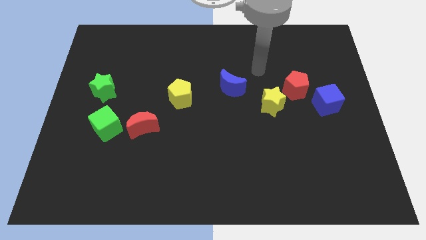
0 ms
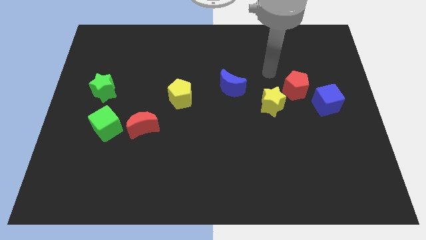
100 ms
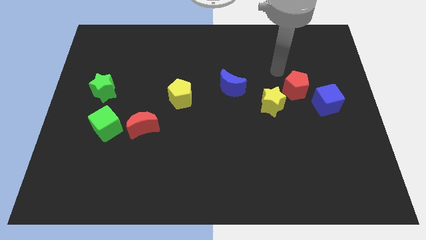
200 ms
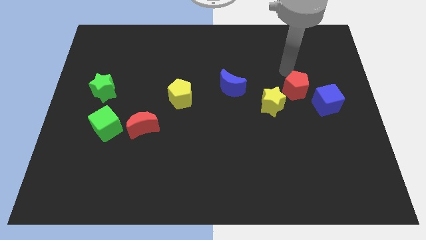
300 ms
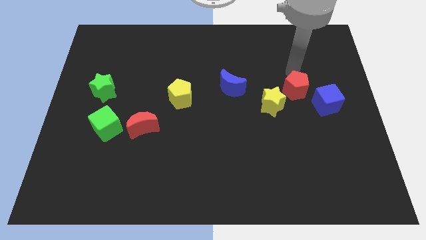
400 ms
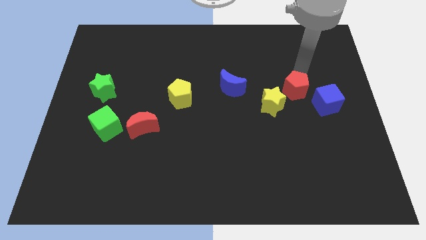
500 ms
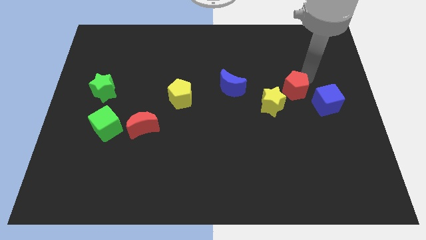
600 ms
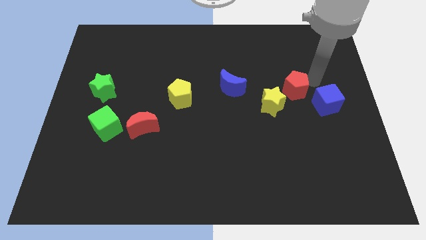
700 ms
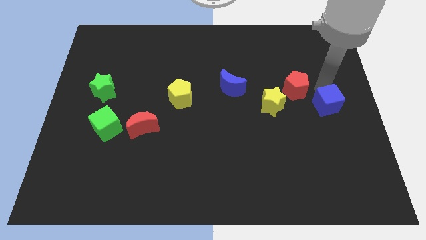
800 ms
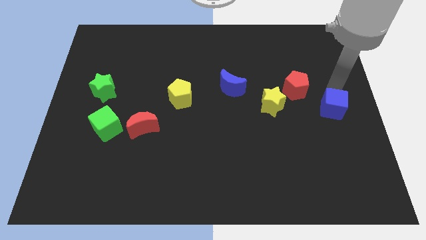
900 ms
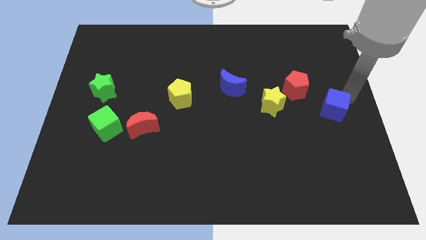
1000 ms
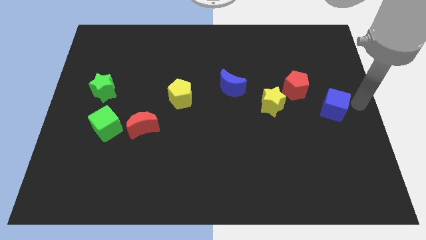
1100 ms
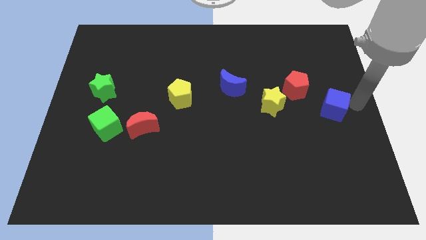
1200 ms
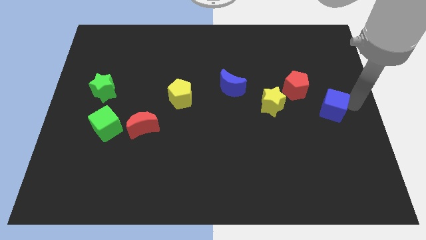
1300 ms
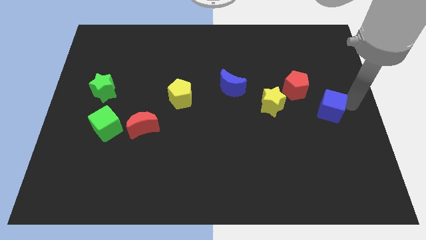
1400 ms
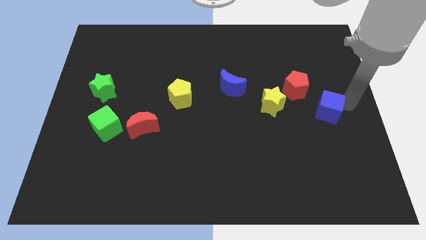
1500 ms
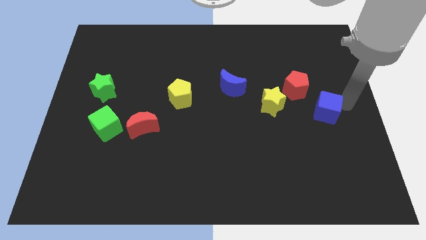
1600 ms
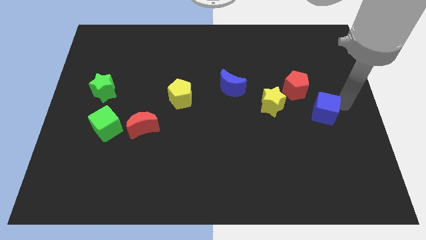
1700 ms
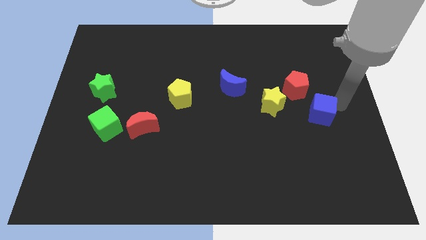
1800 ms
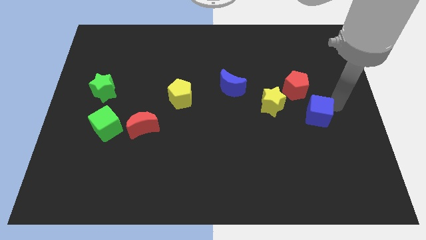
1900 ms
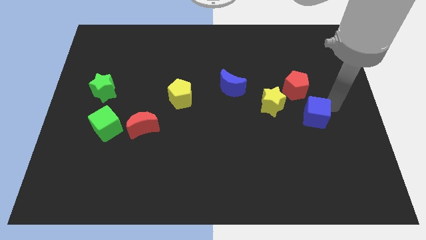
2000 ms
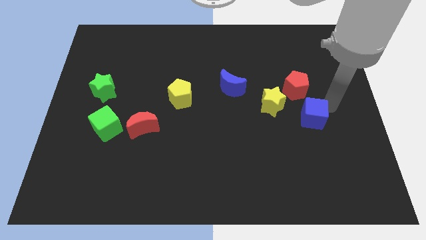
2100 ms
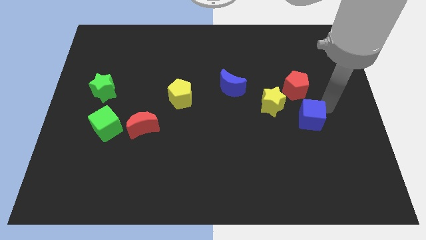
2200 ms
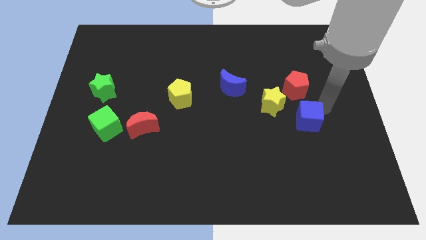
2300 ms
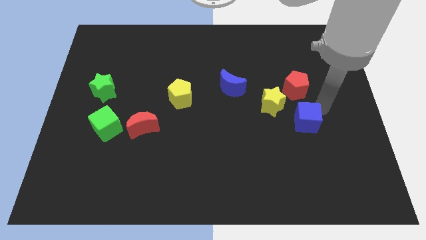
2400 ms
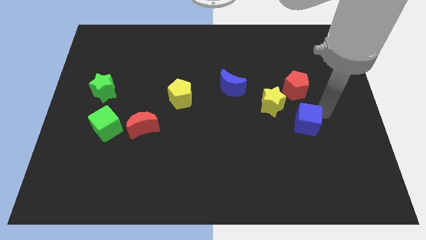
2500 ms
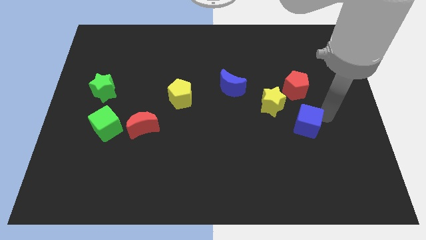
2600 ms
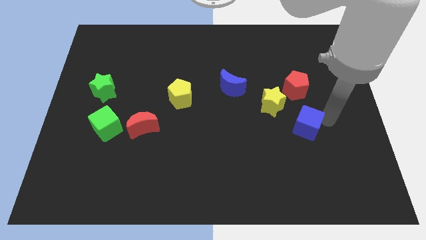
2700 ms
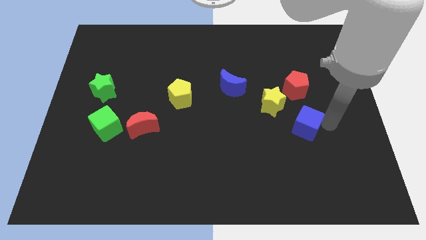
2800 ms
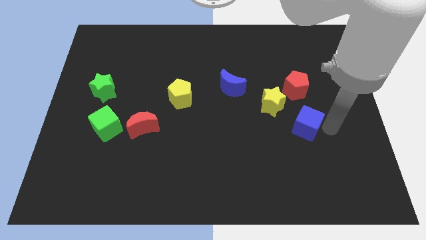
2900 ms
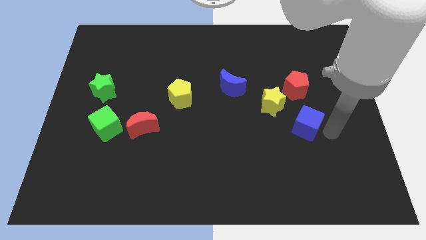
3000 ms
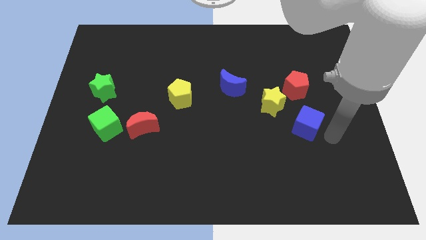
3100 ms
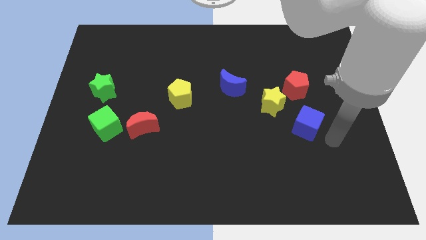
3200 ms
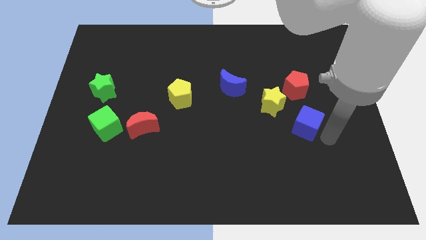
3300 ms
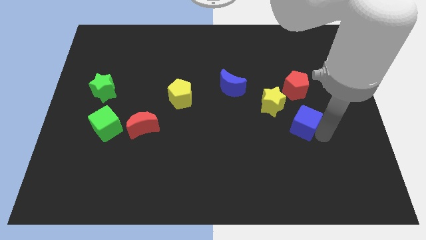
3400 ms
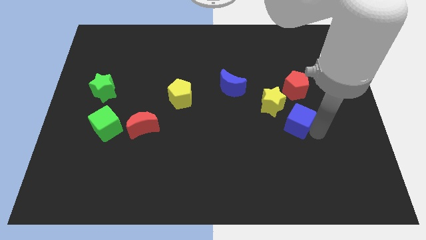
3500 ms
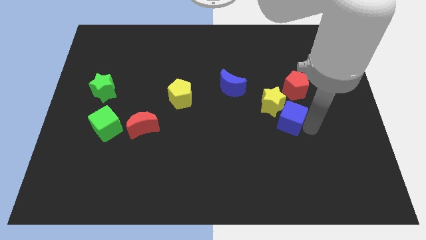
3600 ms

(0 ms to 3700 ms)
push the blue cube left somewhat

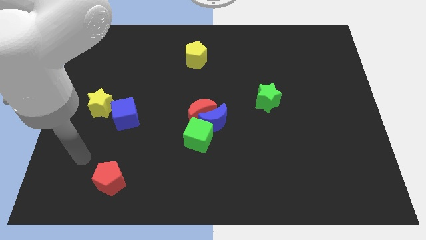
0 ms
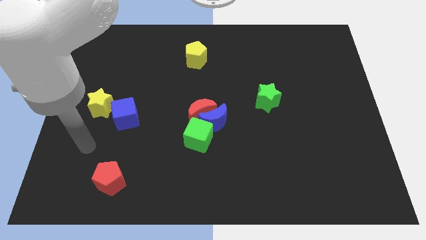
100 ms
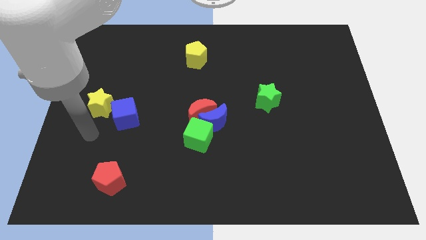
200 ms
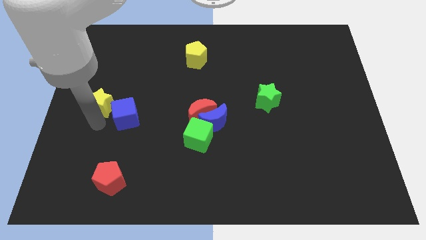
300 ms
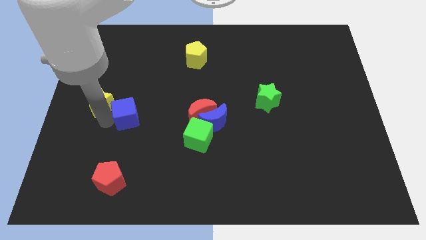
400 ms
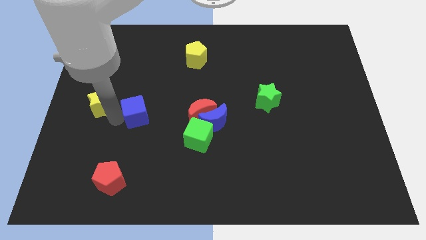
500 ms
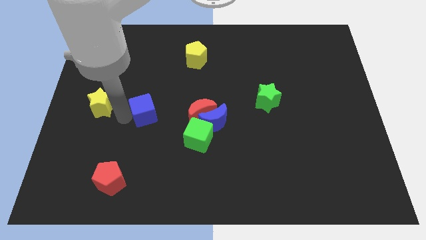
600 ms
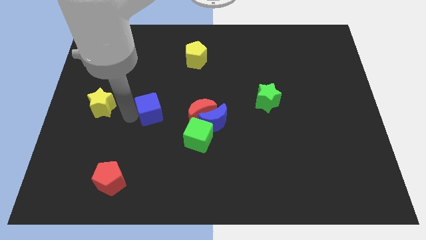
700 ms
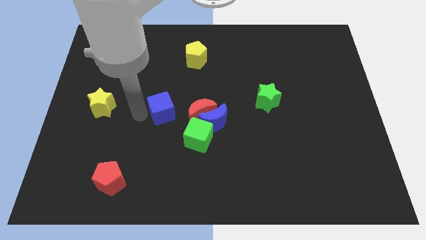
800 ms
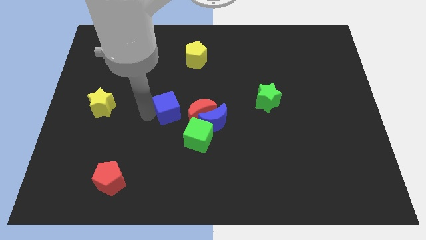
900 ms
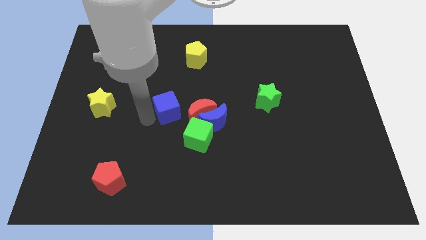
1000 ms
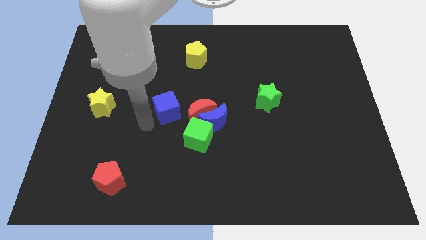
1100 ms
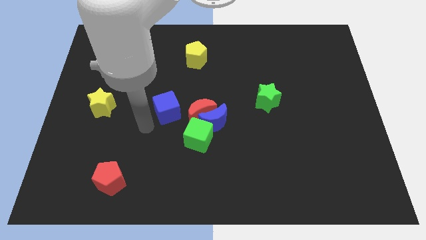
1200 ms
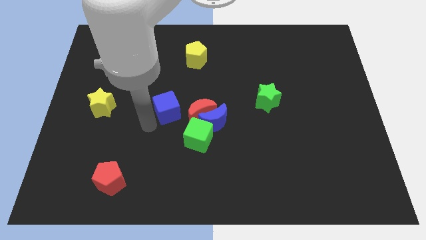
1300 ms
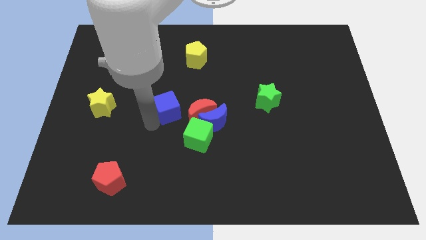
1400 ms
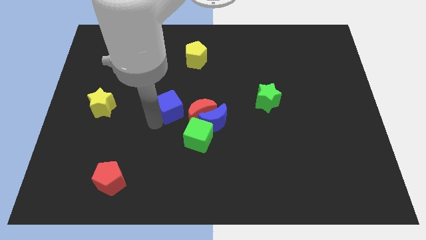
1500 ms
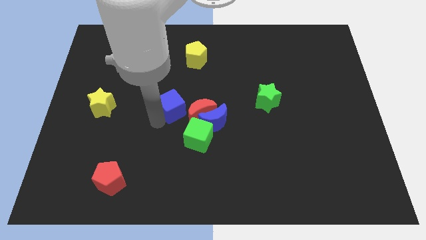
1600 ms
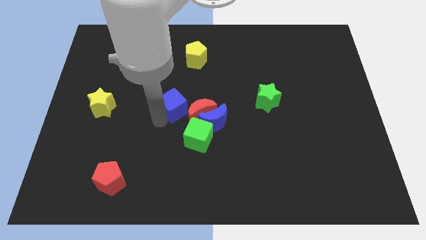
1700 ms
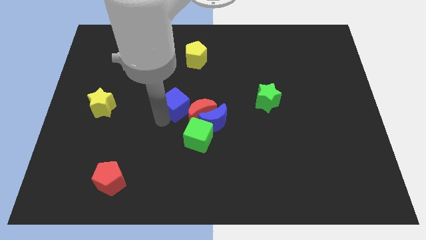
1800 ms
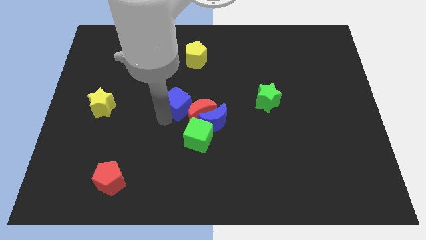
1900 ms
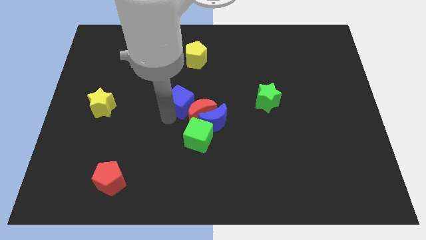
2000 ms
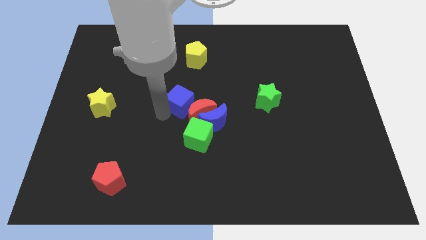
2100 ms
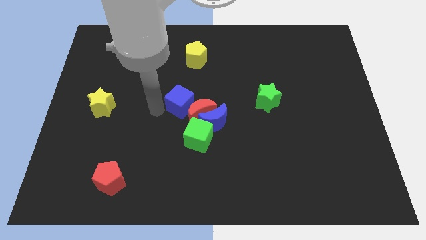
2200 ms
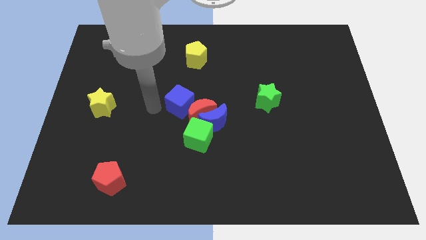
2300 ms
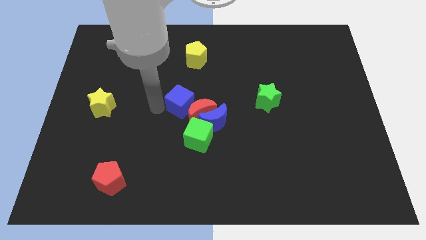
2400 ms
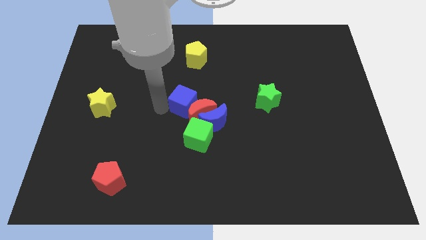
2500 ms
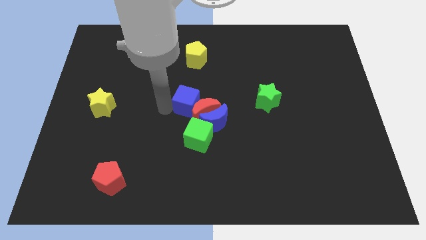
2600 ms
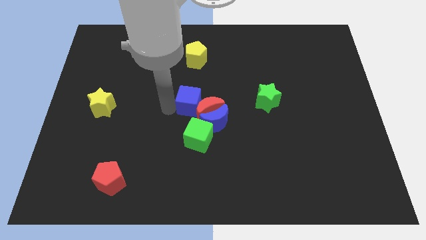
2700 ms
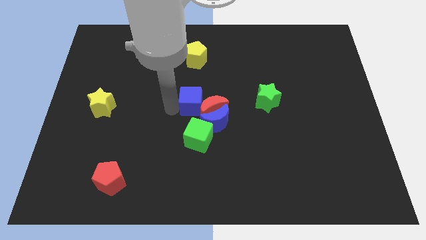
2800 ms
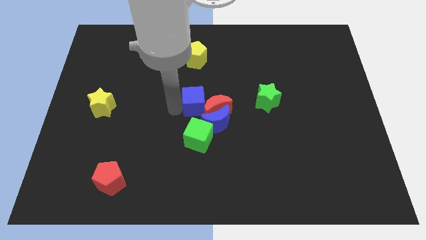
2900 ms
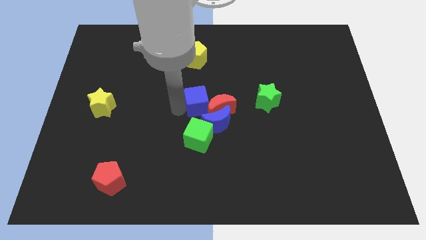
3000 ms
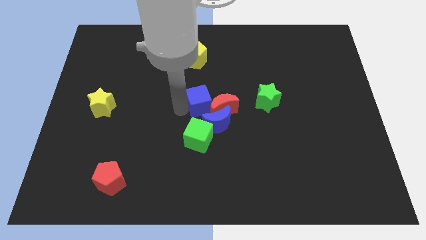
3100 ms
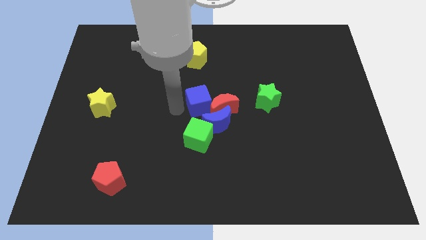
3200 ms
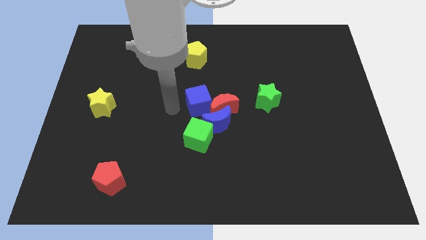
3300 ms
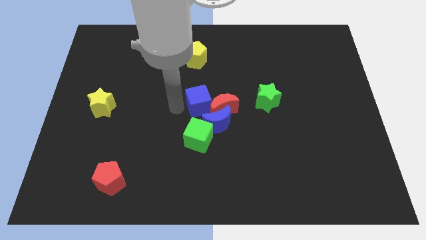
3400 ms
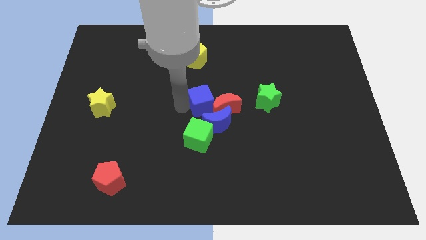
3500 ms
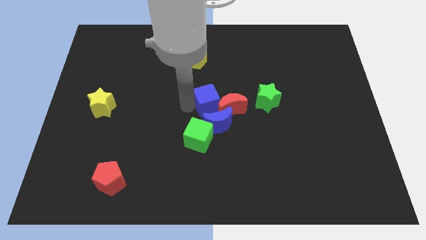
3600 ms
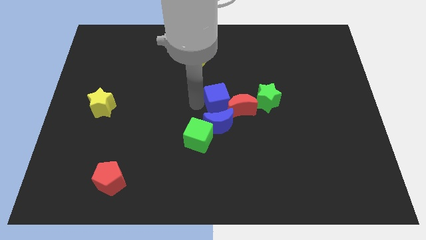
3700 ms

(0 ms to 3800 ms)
move the blue cube right

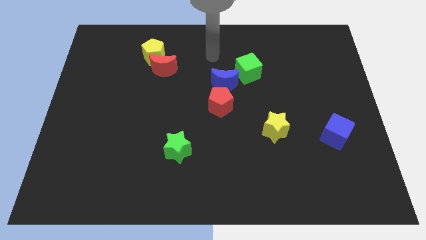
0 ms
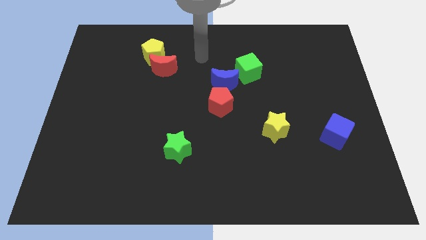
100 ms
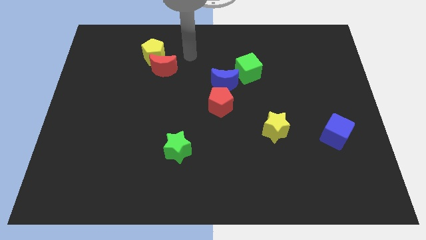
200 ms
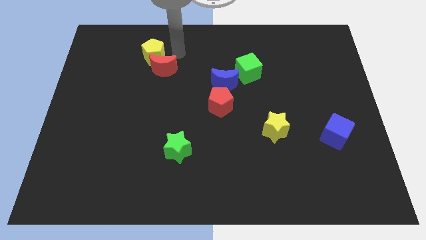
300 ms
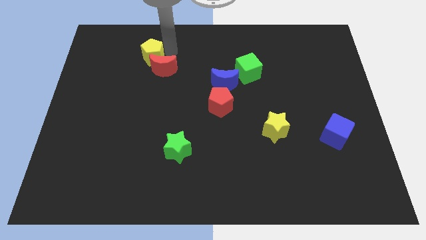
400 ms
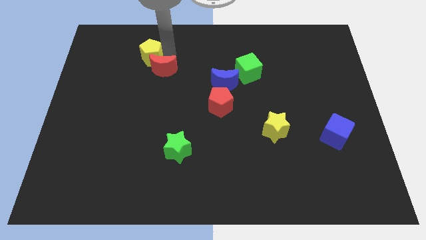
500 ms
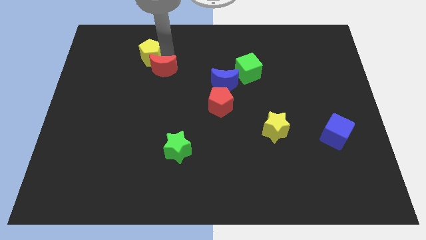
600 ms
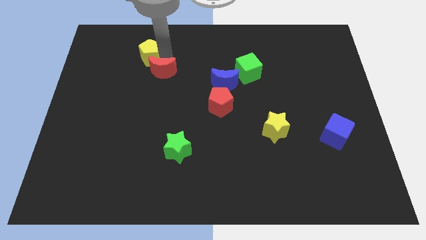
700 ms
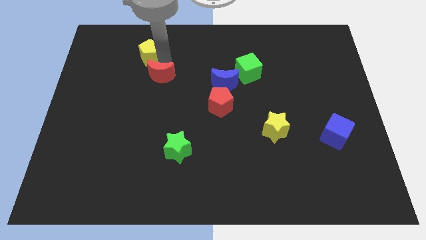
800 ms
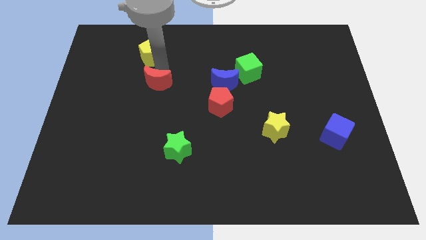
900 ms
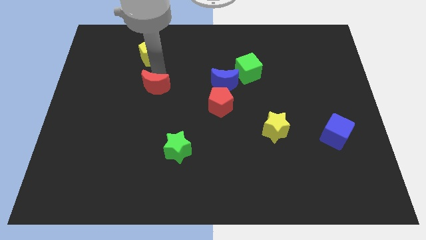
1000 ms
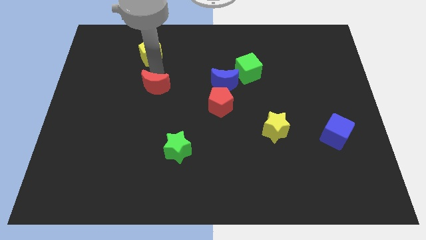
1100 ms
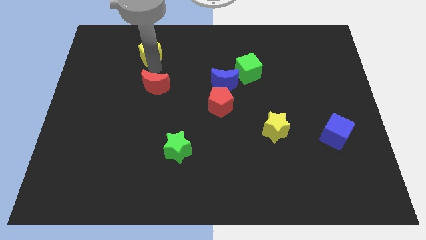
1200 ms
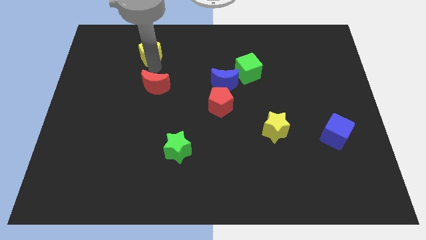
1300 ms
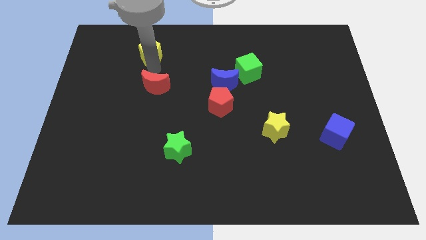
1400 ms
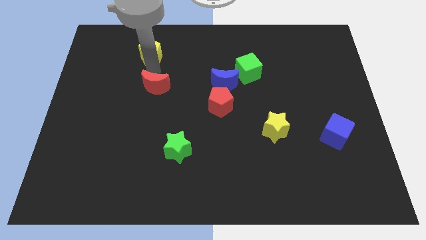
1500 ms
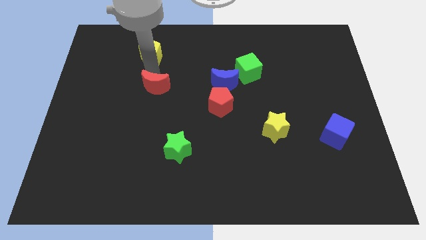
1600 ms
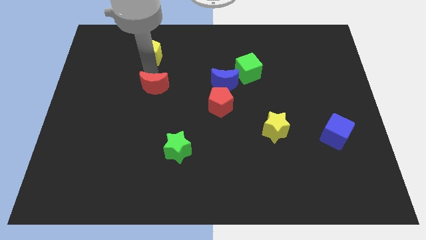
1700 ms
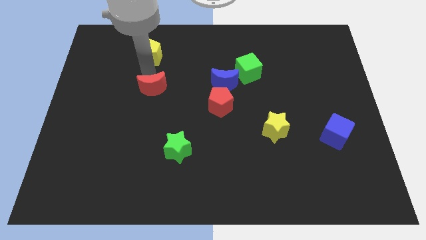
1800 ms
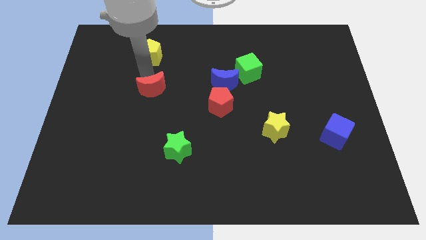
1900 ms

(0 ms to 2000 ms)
slide the red moon somewhat down
